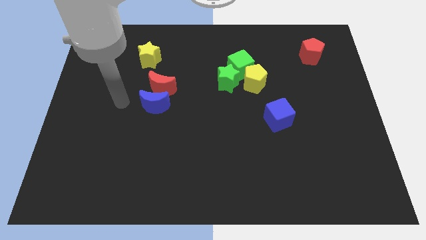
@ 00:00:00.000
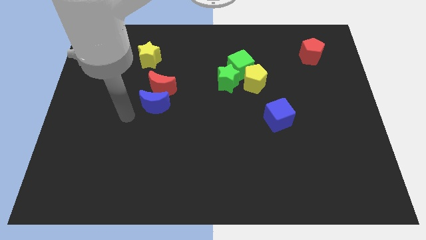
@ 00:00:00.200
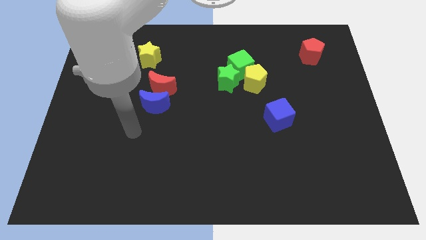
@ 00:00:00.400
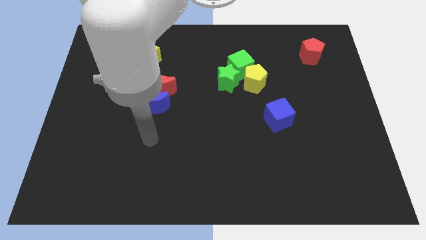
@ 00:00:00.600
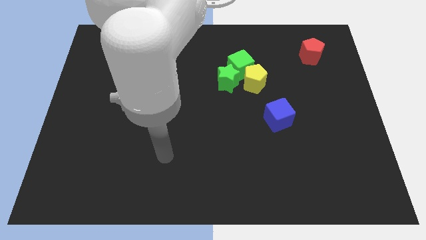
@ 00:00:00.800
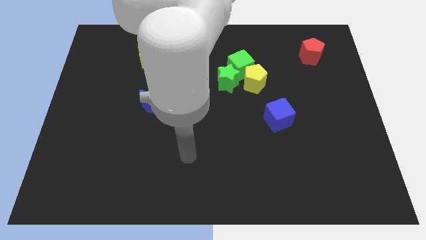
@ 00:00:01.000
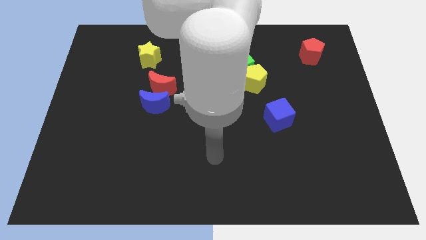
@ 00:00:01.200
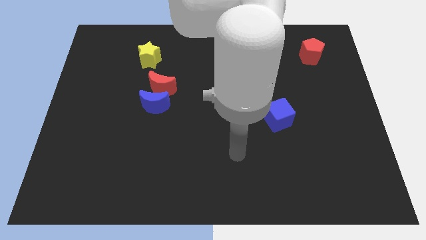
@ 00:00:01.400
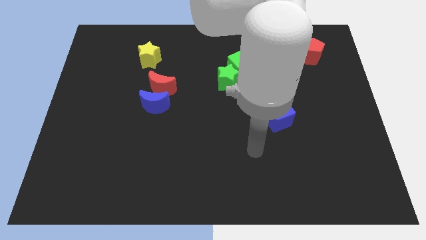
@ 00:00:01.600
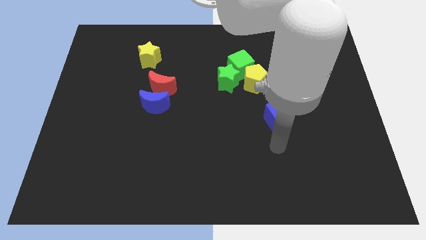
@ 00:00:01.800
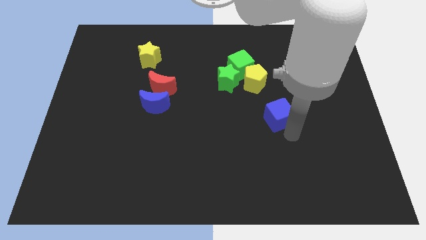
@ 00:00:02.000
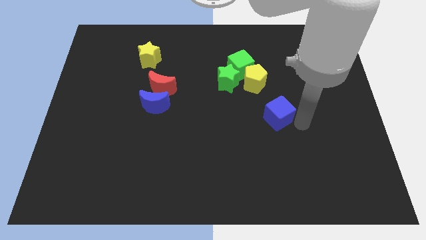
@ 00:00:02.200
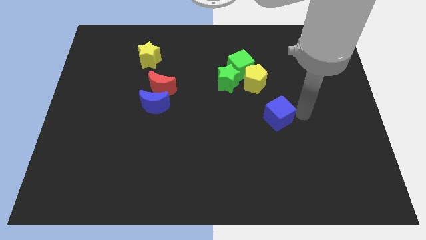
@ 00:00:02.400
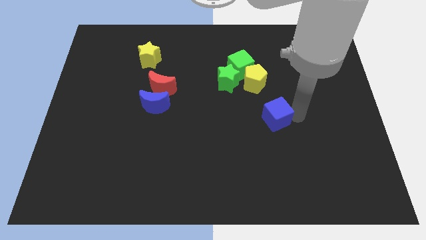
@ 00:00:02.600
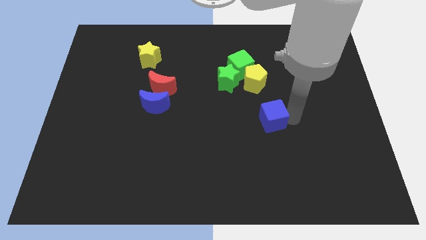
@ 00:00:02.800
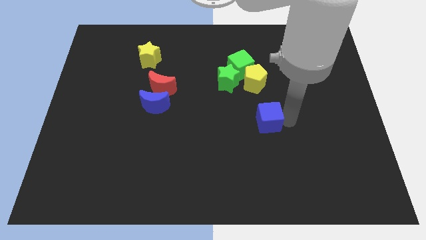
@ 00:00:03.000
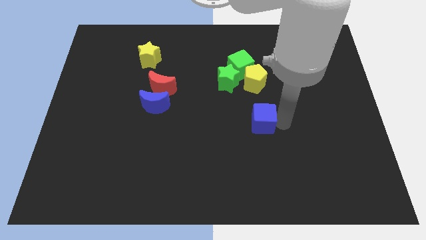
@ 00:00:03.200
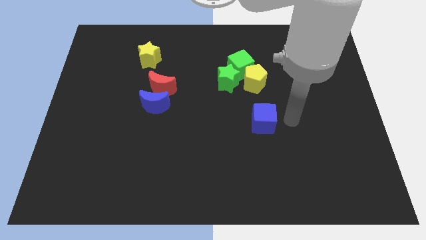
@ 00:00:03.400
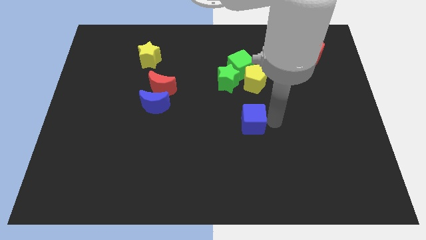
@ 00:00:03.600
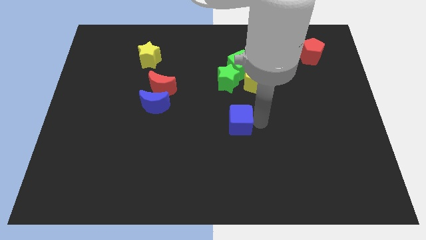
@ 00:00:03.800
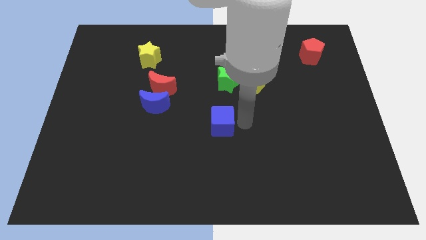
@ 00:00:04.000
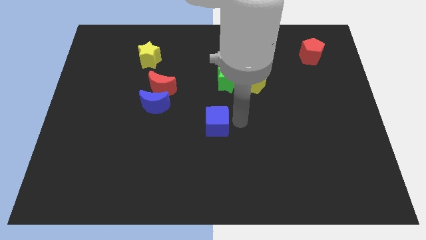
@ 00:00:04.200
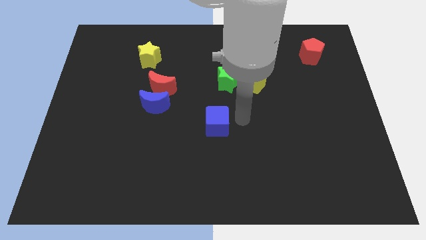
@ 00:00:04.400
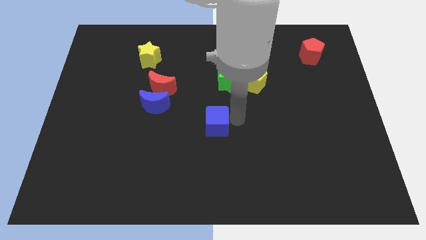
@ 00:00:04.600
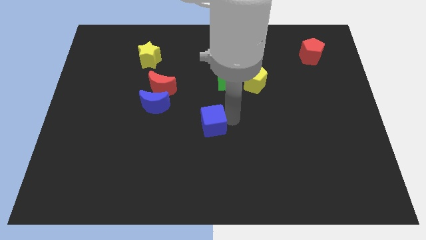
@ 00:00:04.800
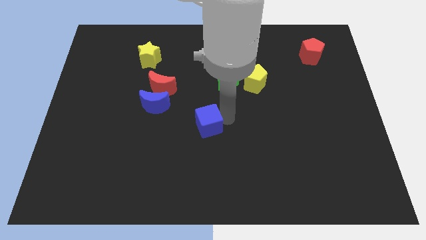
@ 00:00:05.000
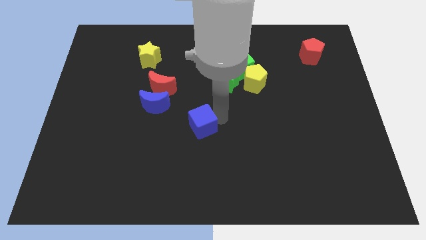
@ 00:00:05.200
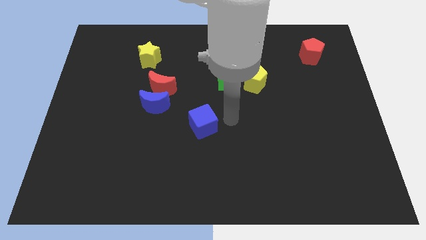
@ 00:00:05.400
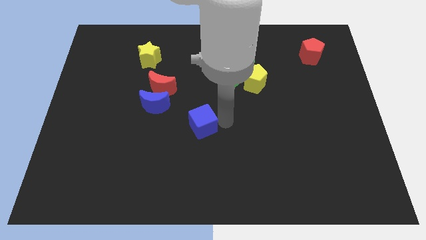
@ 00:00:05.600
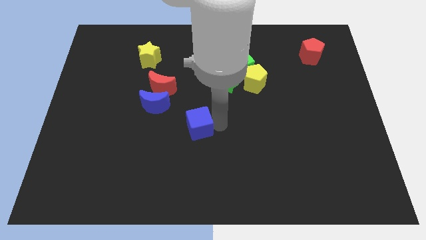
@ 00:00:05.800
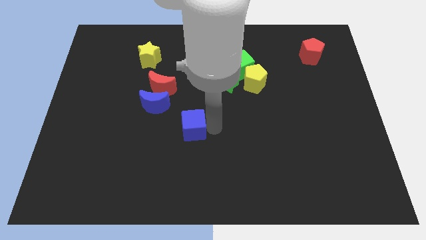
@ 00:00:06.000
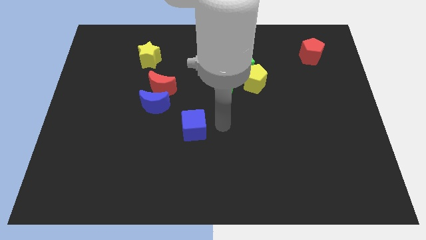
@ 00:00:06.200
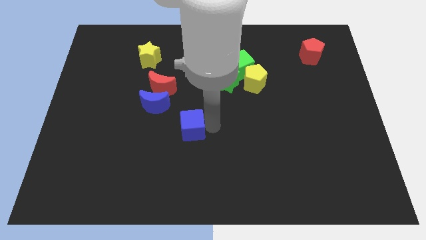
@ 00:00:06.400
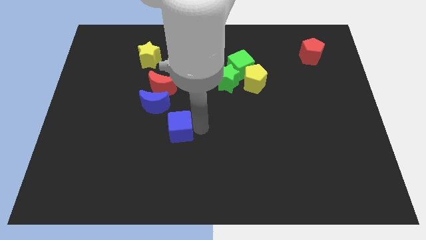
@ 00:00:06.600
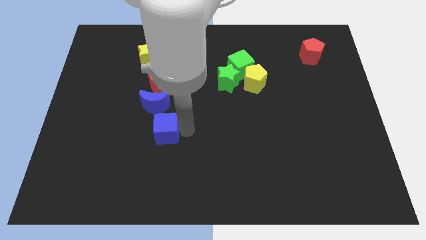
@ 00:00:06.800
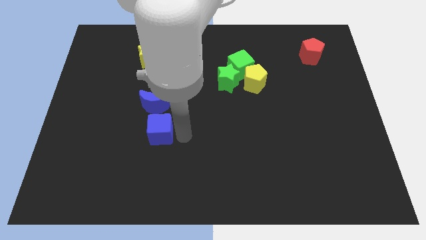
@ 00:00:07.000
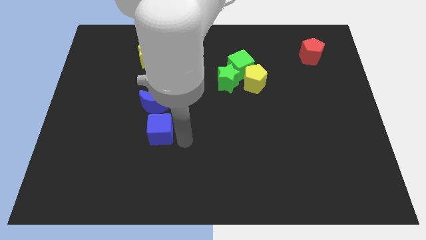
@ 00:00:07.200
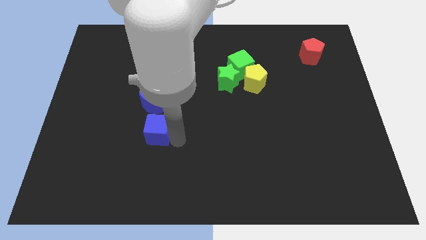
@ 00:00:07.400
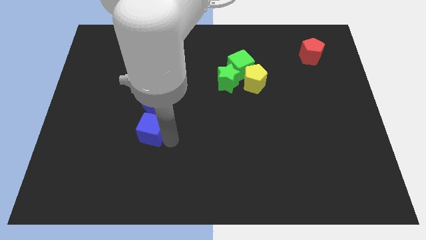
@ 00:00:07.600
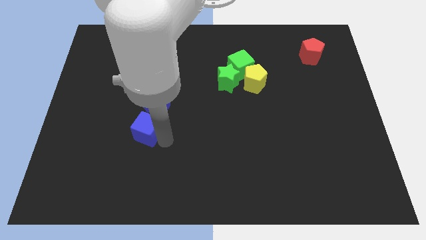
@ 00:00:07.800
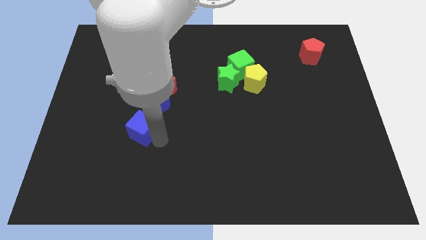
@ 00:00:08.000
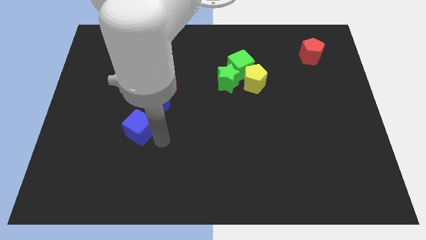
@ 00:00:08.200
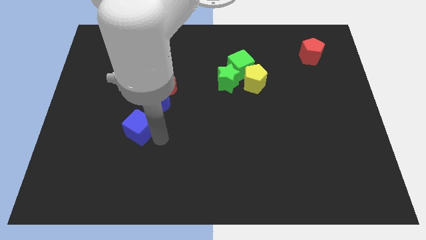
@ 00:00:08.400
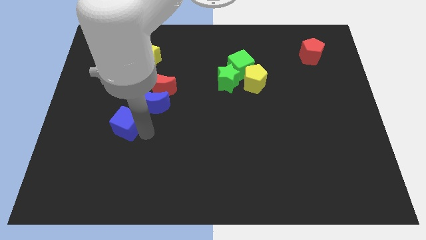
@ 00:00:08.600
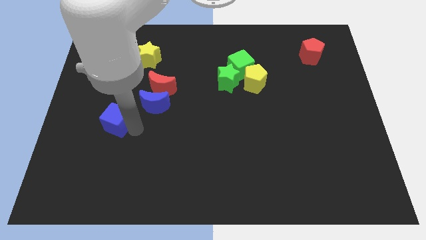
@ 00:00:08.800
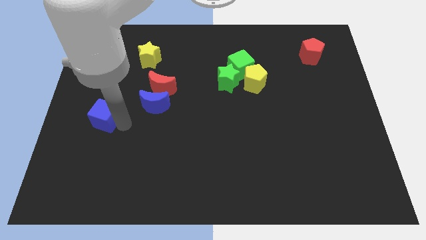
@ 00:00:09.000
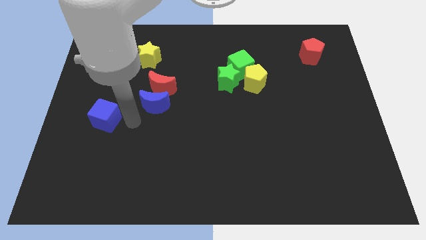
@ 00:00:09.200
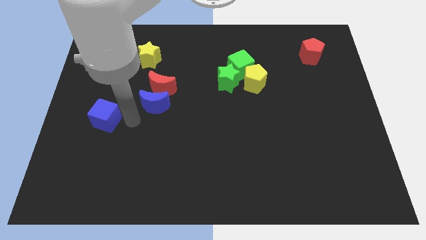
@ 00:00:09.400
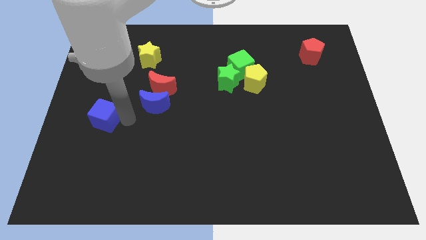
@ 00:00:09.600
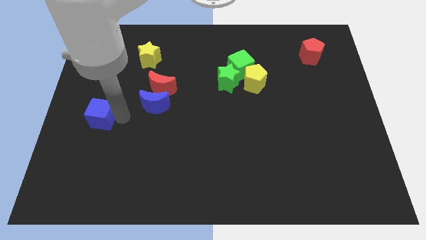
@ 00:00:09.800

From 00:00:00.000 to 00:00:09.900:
put the blue cube to the left side

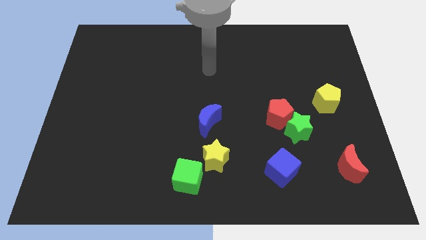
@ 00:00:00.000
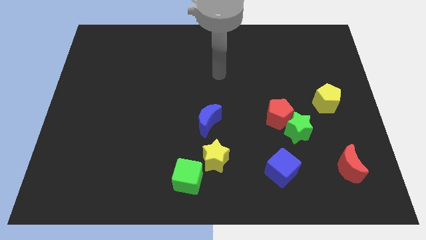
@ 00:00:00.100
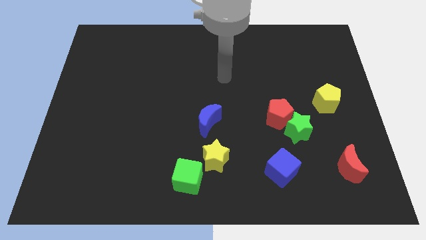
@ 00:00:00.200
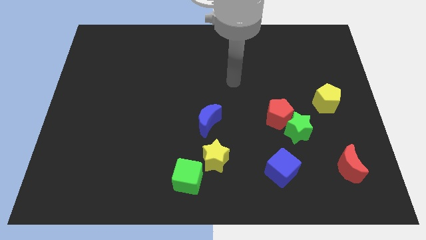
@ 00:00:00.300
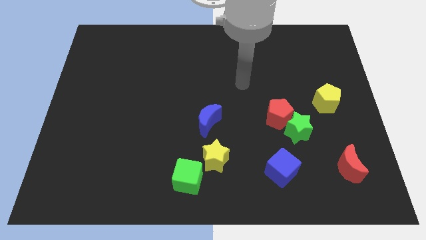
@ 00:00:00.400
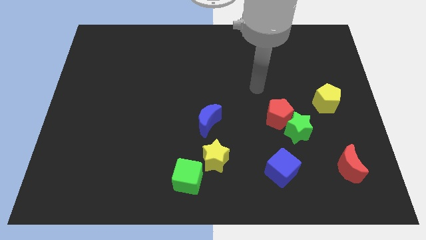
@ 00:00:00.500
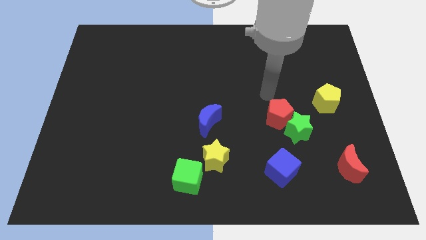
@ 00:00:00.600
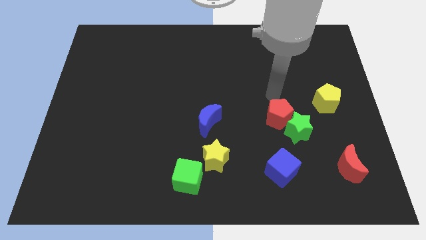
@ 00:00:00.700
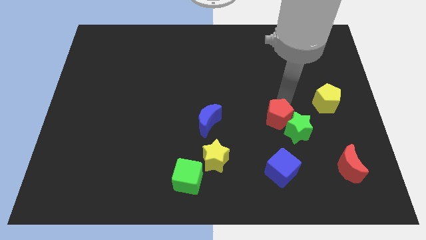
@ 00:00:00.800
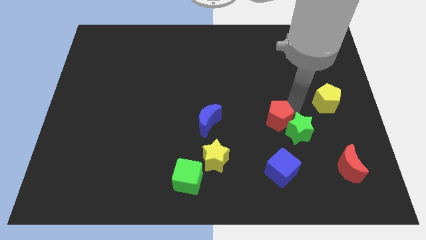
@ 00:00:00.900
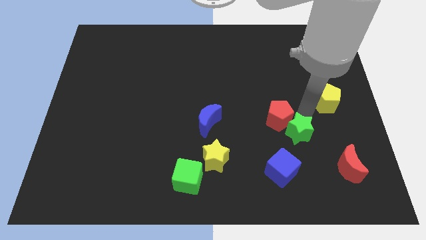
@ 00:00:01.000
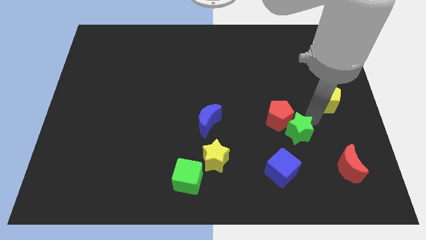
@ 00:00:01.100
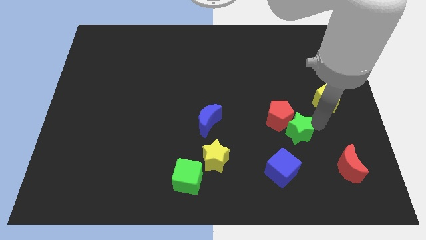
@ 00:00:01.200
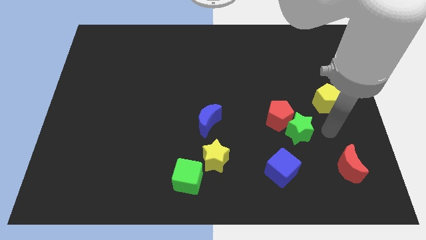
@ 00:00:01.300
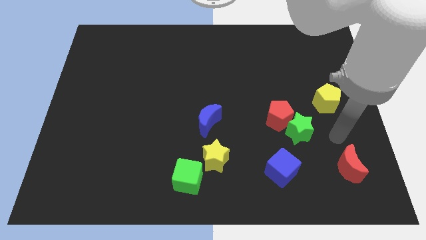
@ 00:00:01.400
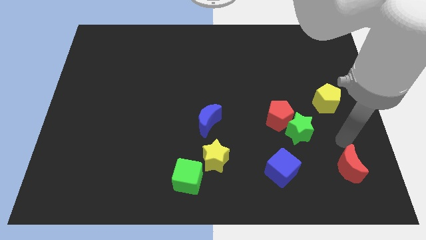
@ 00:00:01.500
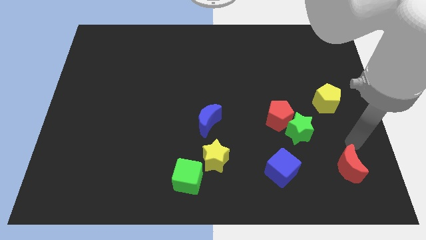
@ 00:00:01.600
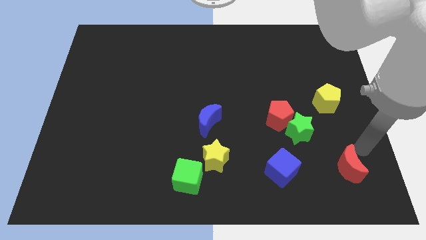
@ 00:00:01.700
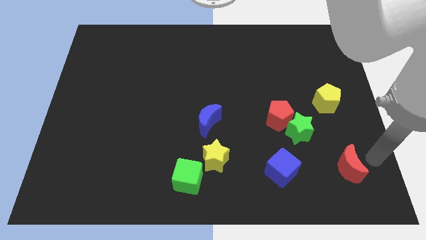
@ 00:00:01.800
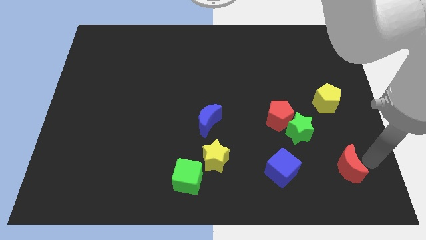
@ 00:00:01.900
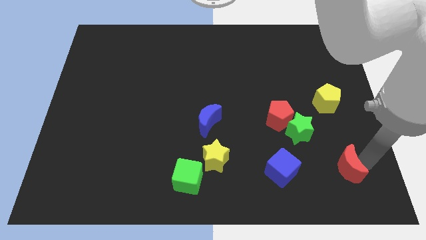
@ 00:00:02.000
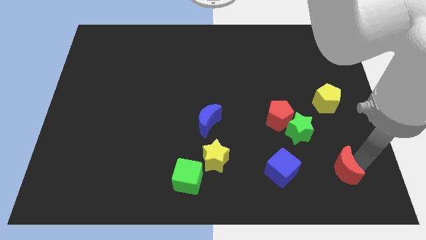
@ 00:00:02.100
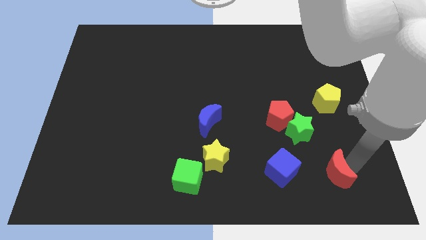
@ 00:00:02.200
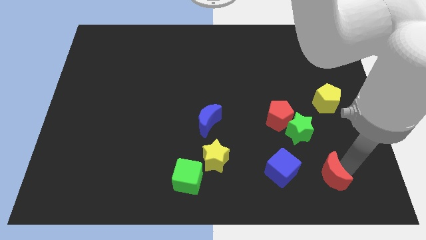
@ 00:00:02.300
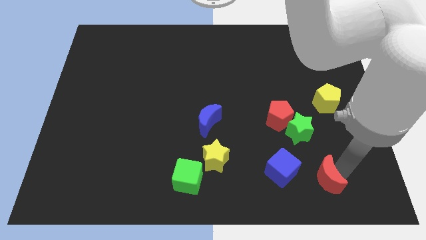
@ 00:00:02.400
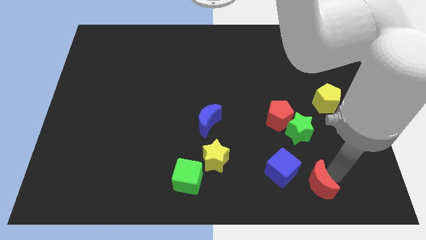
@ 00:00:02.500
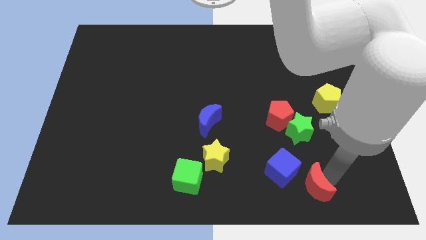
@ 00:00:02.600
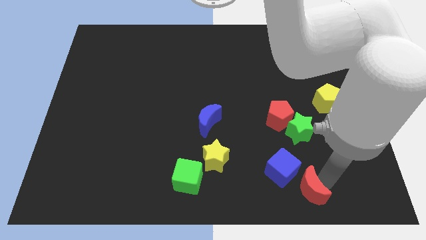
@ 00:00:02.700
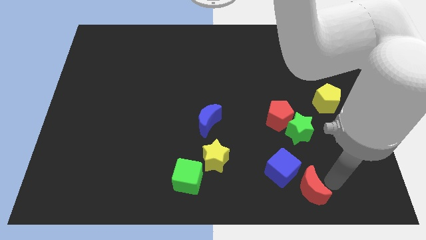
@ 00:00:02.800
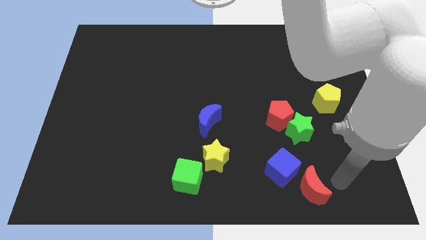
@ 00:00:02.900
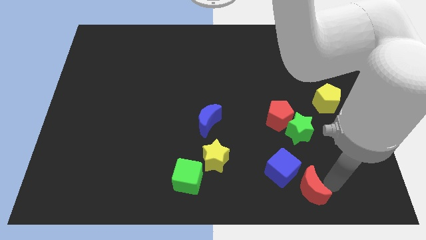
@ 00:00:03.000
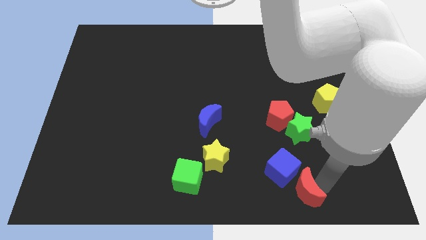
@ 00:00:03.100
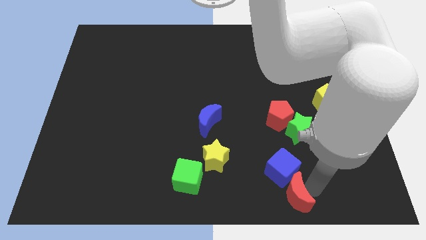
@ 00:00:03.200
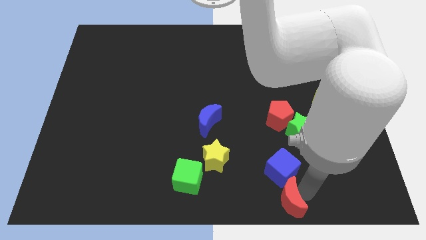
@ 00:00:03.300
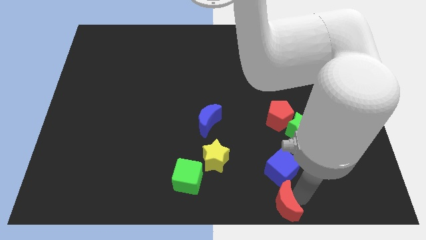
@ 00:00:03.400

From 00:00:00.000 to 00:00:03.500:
put the red moon to the bottom side
